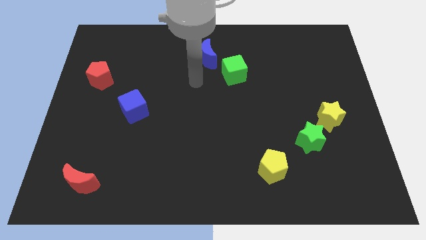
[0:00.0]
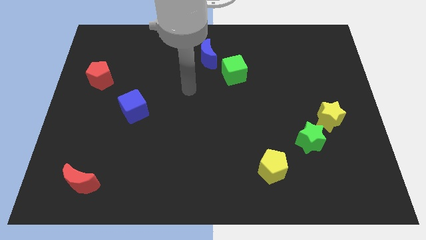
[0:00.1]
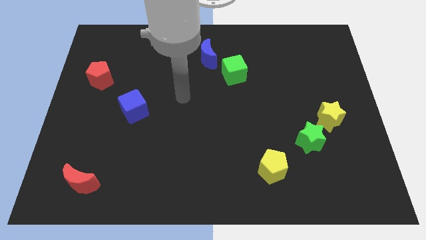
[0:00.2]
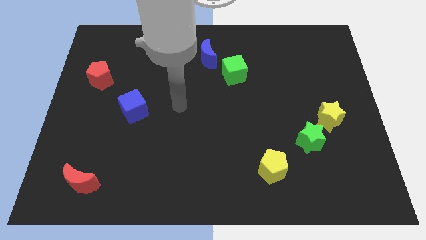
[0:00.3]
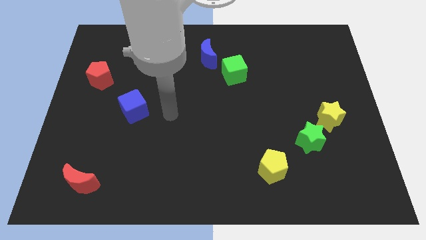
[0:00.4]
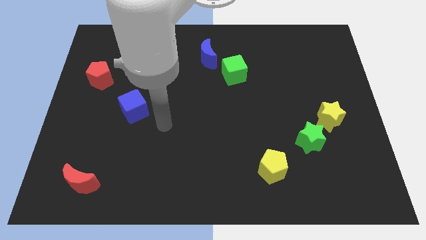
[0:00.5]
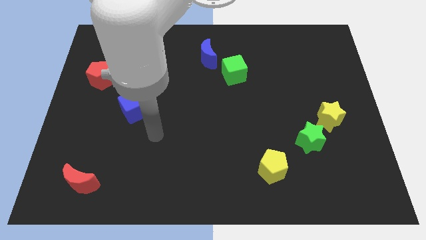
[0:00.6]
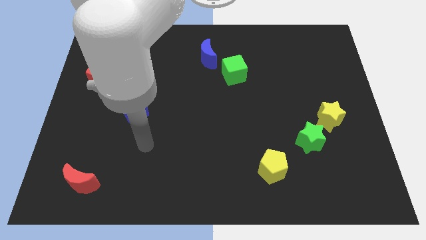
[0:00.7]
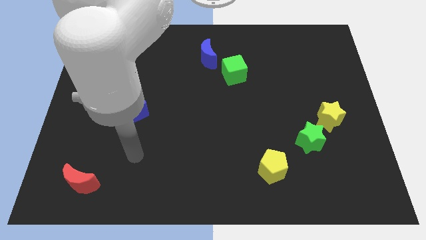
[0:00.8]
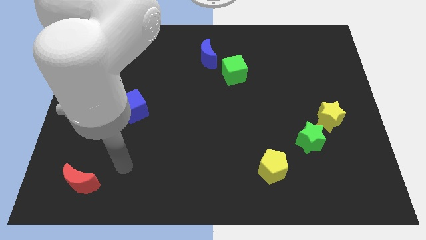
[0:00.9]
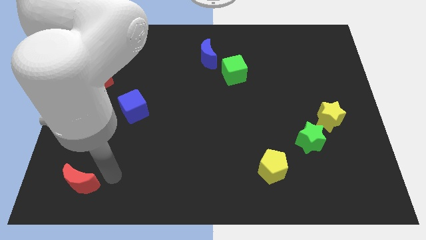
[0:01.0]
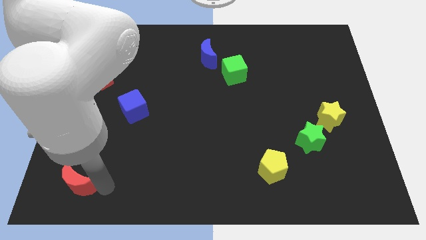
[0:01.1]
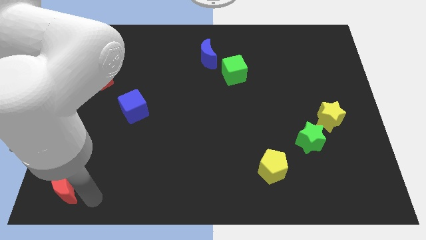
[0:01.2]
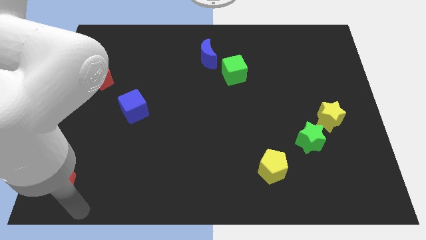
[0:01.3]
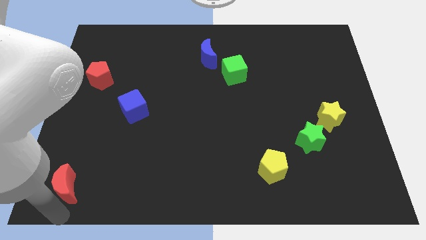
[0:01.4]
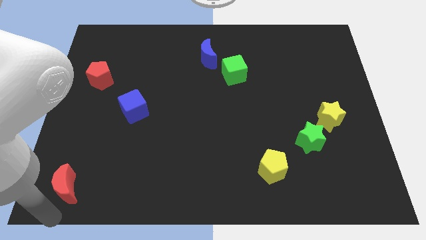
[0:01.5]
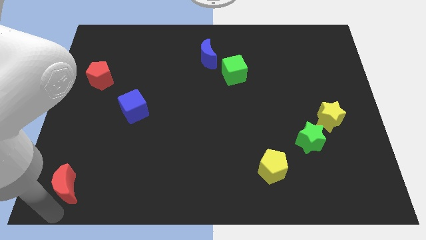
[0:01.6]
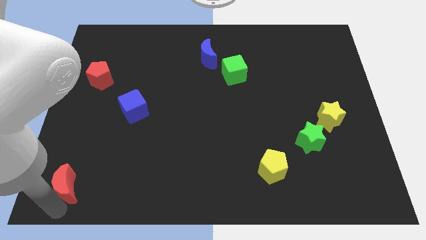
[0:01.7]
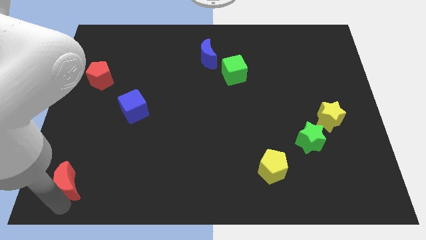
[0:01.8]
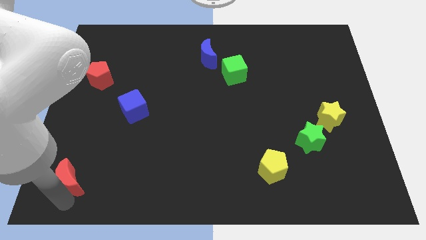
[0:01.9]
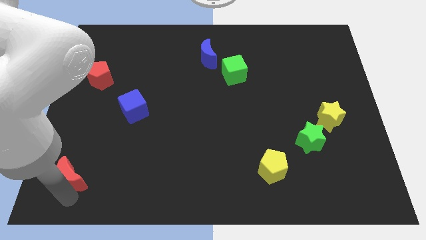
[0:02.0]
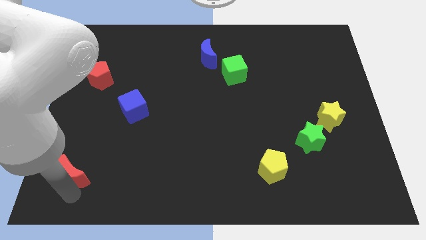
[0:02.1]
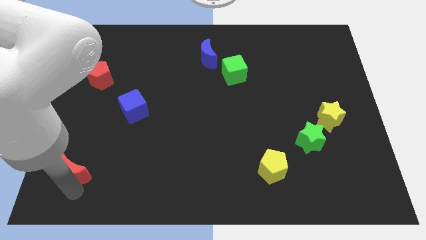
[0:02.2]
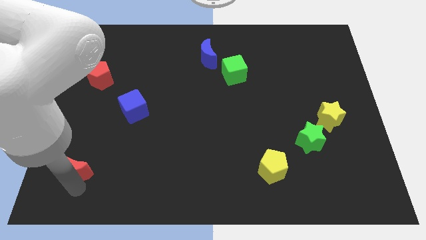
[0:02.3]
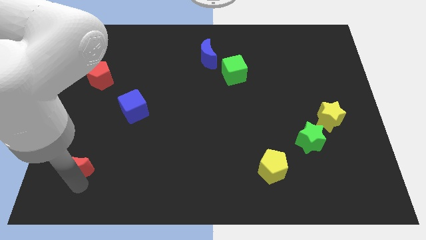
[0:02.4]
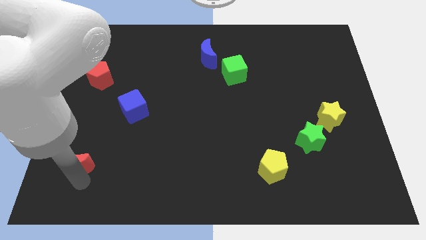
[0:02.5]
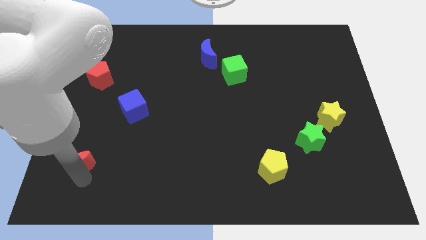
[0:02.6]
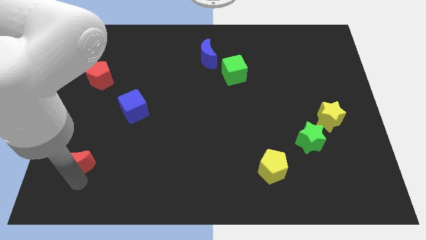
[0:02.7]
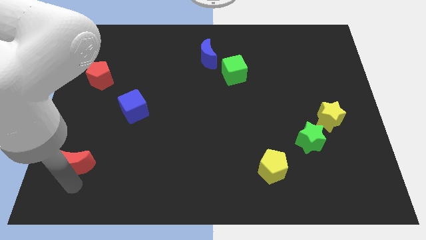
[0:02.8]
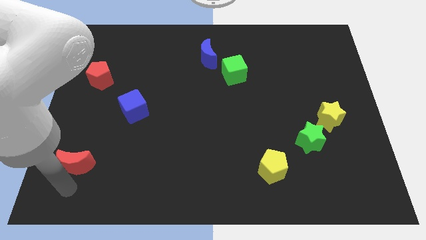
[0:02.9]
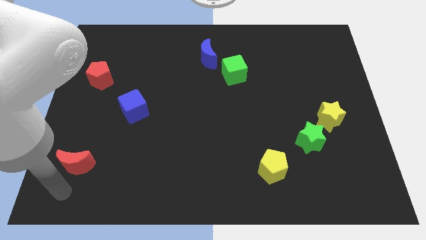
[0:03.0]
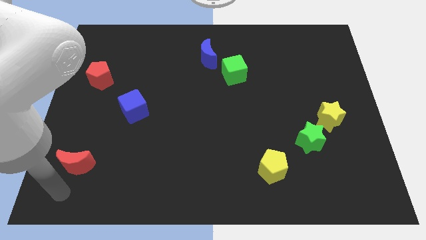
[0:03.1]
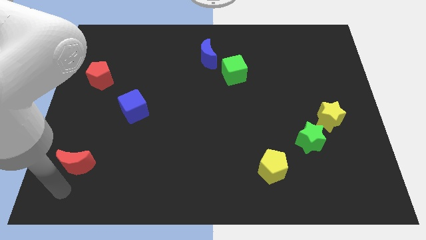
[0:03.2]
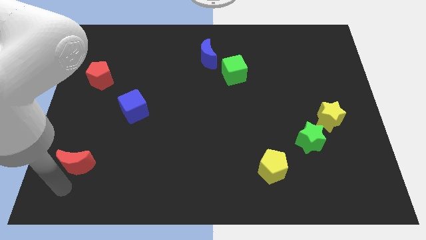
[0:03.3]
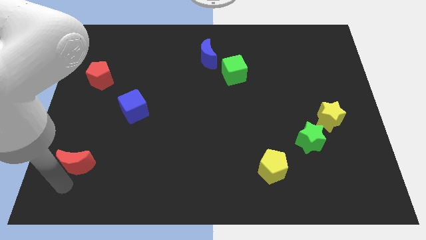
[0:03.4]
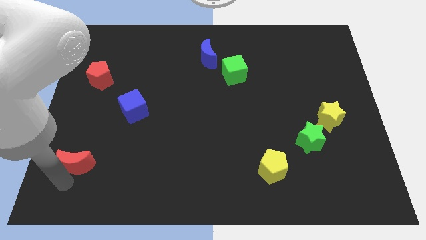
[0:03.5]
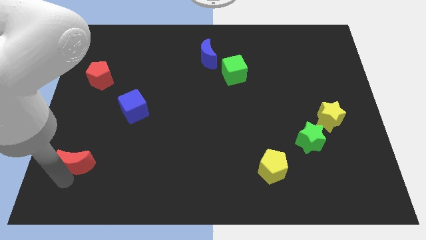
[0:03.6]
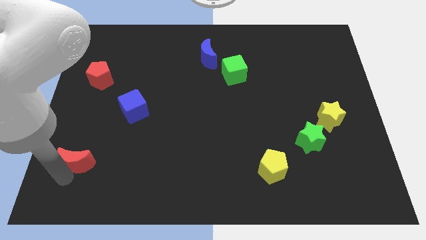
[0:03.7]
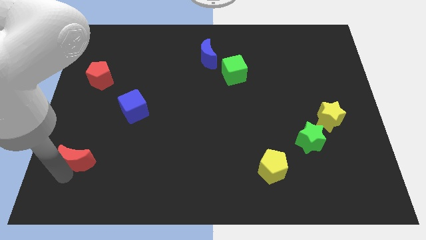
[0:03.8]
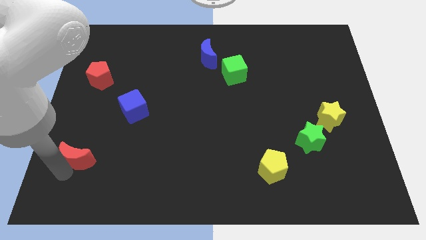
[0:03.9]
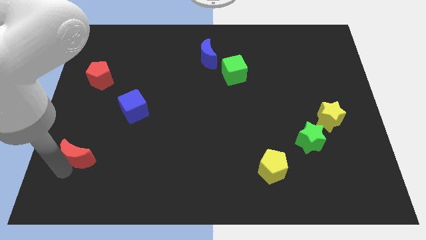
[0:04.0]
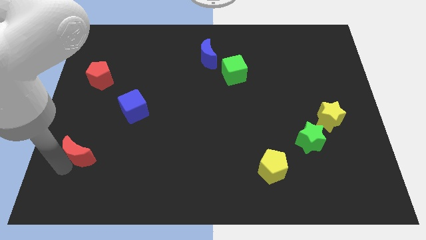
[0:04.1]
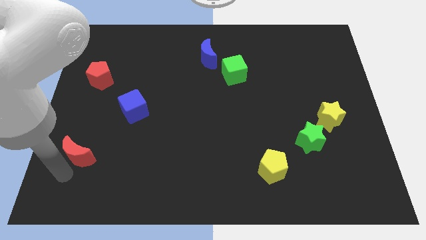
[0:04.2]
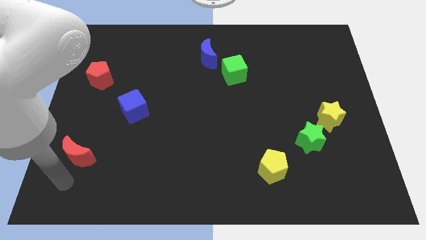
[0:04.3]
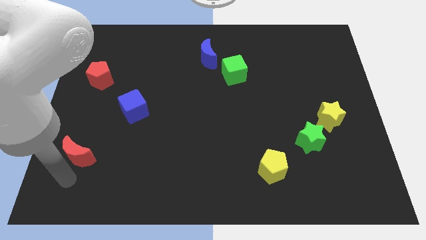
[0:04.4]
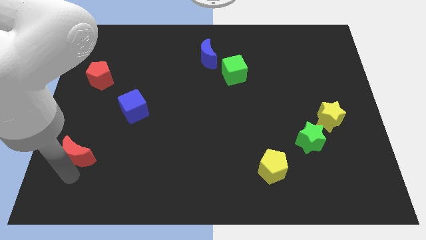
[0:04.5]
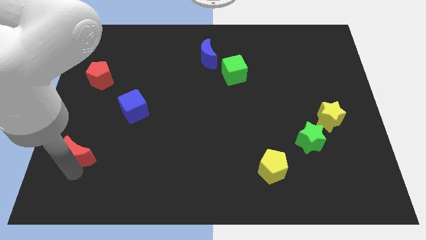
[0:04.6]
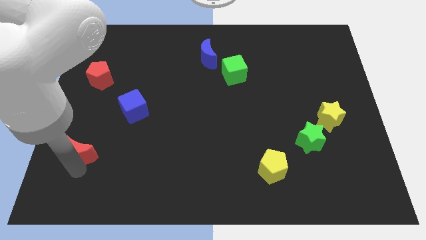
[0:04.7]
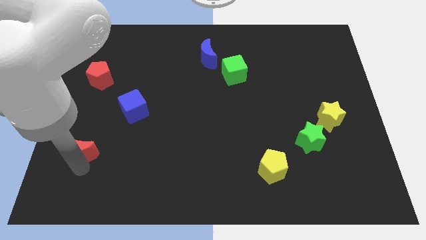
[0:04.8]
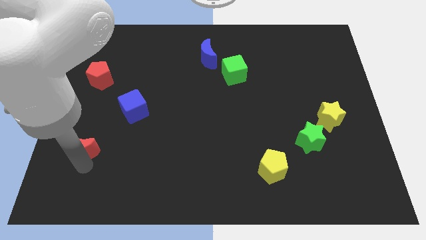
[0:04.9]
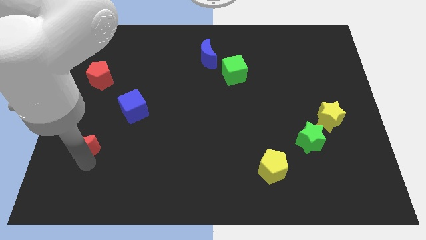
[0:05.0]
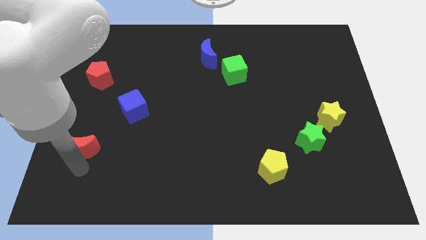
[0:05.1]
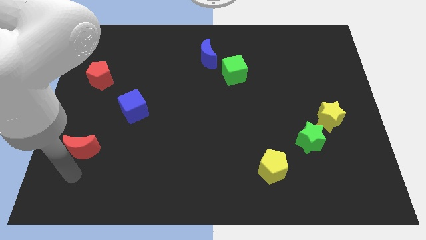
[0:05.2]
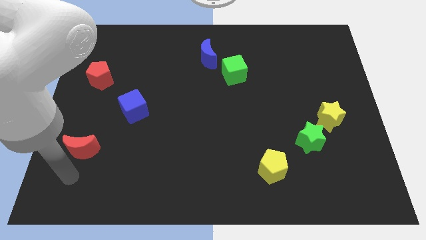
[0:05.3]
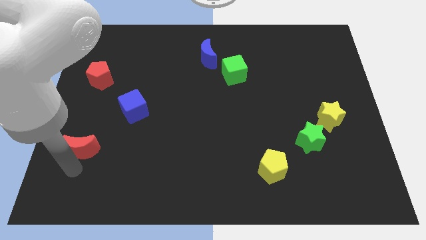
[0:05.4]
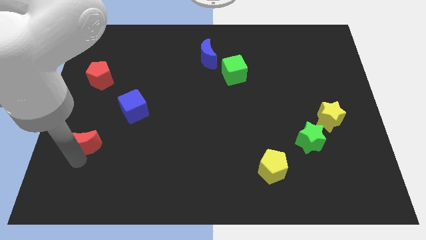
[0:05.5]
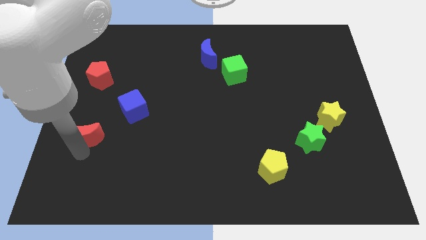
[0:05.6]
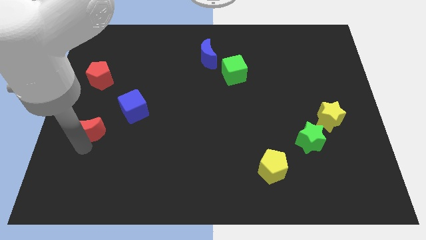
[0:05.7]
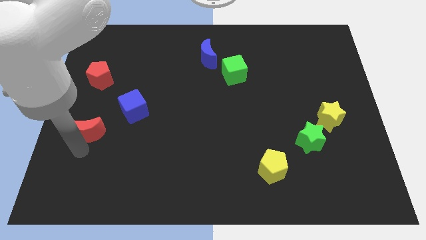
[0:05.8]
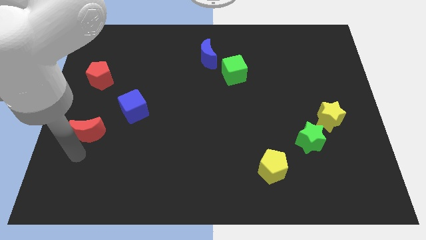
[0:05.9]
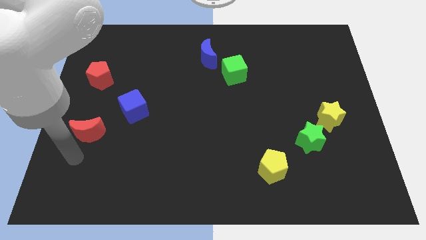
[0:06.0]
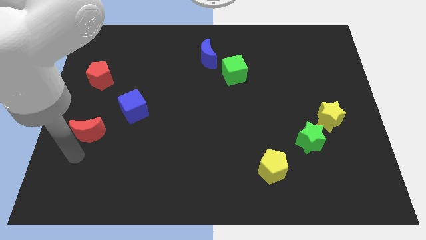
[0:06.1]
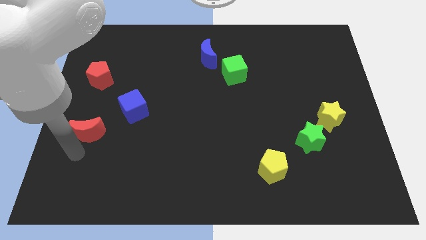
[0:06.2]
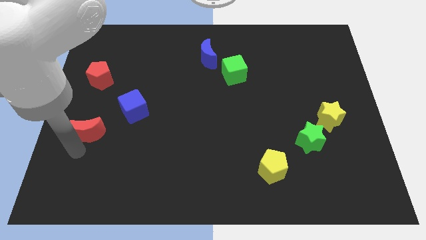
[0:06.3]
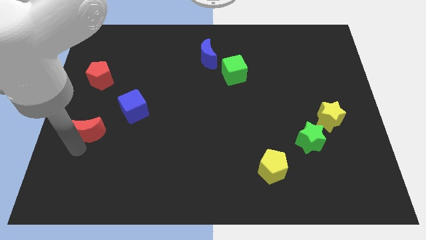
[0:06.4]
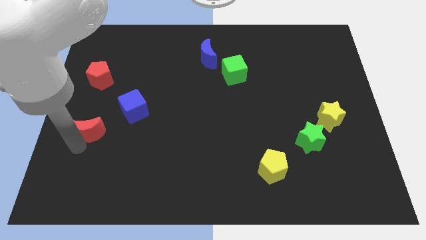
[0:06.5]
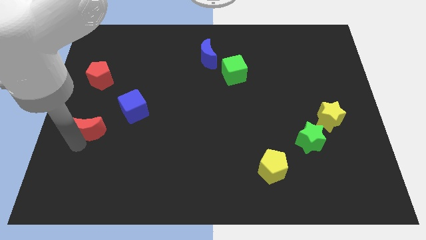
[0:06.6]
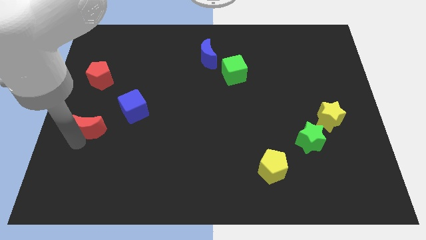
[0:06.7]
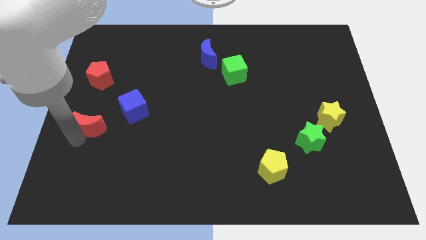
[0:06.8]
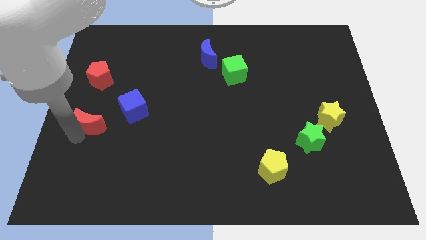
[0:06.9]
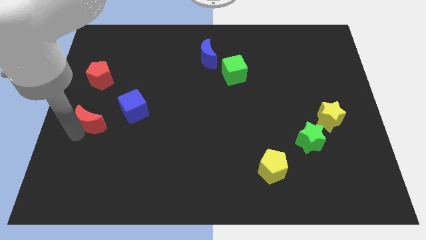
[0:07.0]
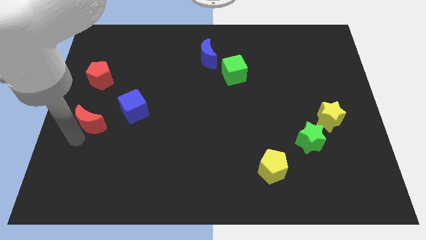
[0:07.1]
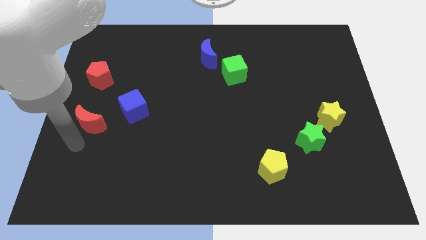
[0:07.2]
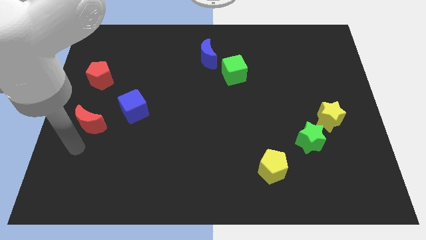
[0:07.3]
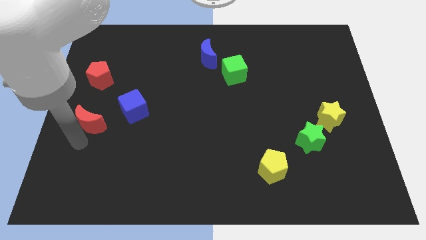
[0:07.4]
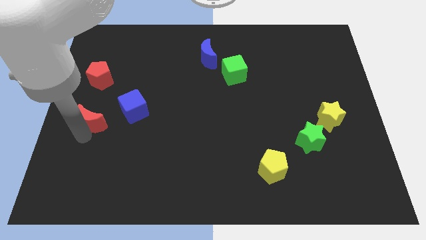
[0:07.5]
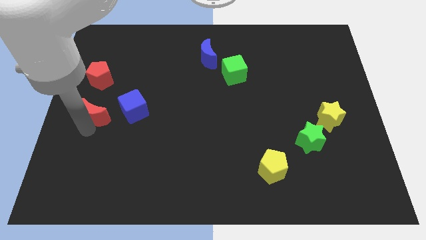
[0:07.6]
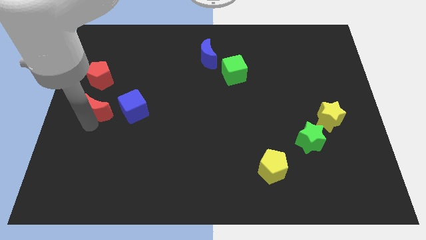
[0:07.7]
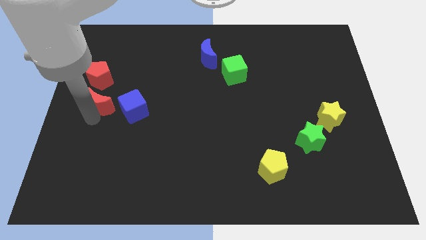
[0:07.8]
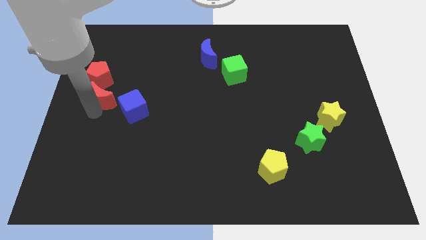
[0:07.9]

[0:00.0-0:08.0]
slide the red moon to the top left of the blue cube
